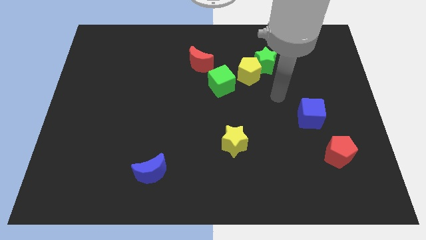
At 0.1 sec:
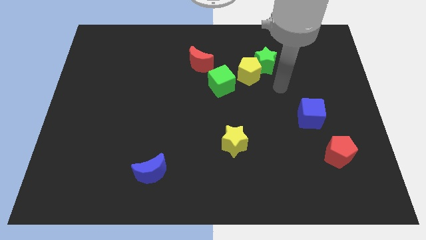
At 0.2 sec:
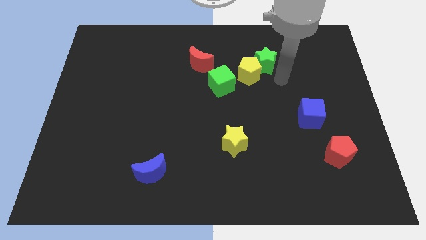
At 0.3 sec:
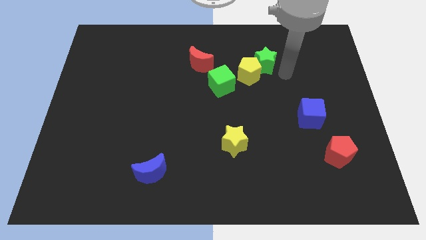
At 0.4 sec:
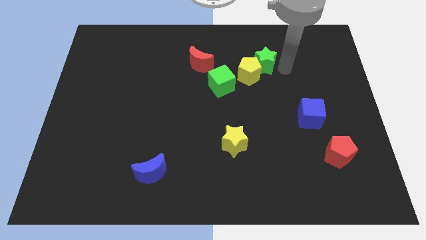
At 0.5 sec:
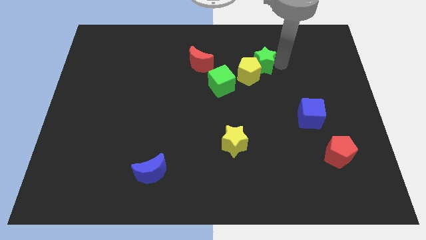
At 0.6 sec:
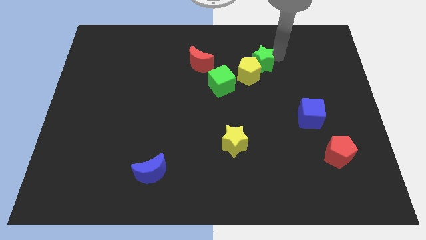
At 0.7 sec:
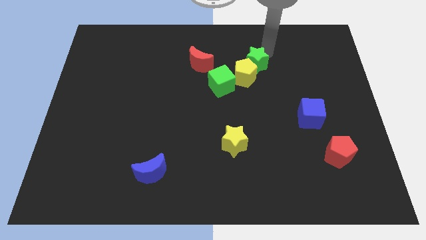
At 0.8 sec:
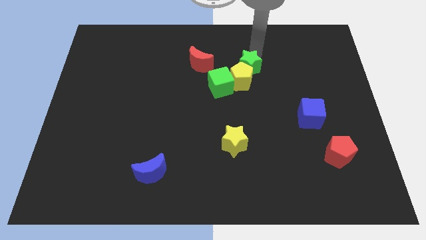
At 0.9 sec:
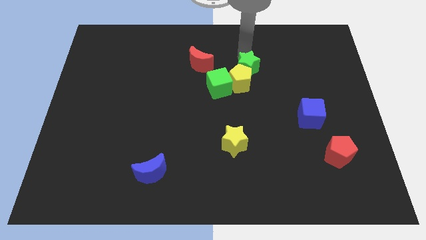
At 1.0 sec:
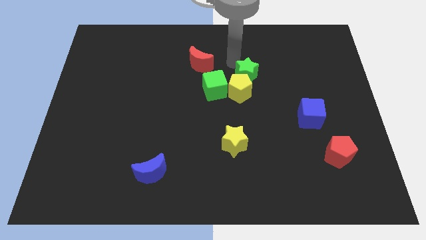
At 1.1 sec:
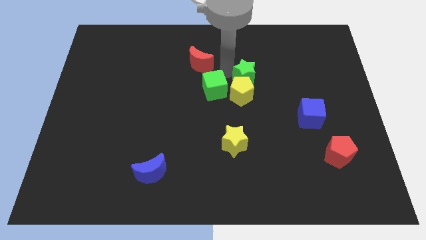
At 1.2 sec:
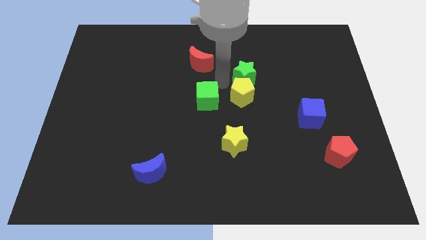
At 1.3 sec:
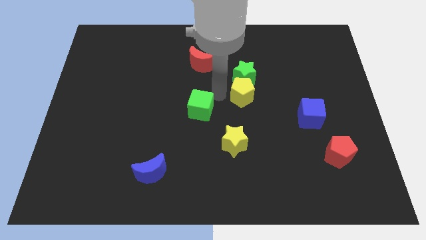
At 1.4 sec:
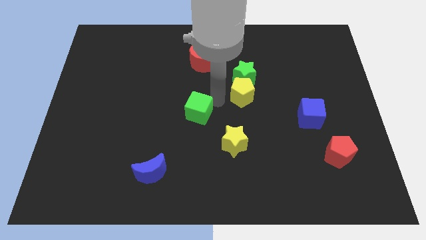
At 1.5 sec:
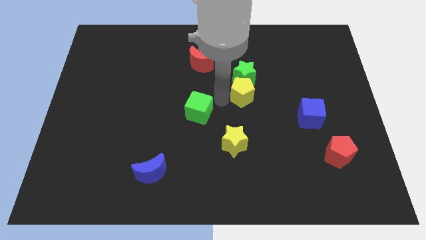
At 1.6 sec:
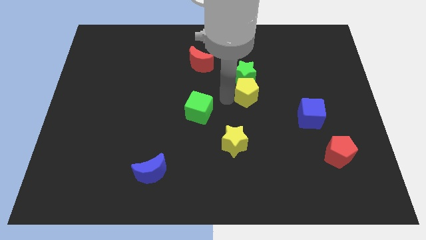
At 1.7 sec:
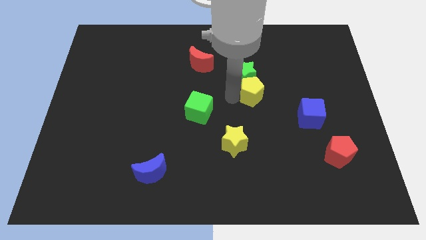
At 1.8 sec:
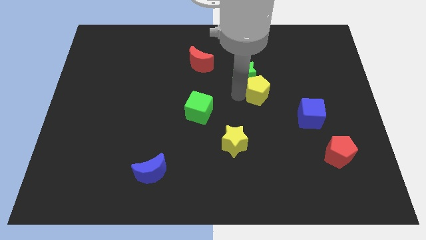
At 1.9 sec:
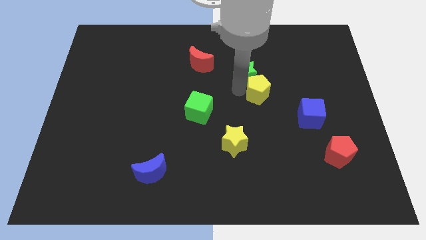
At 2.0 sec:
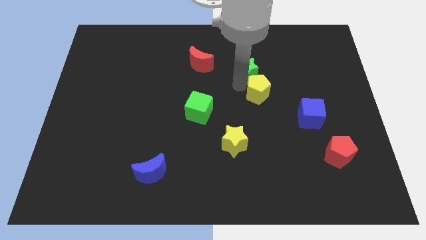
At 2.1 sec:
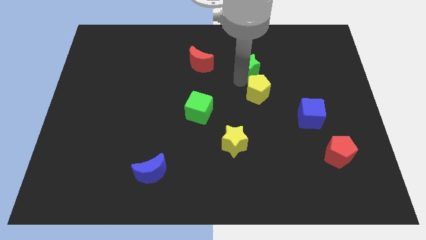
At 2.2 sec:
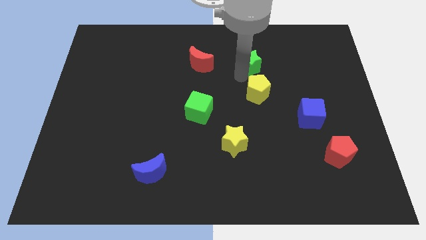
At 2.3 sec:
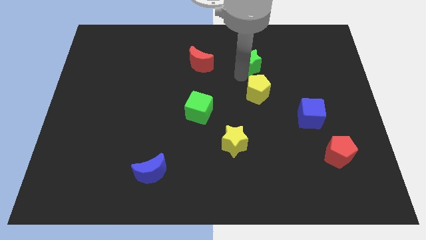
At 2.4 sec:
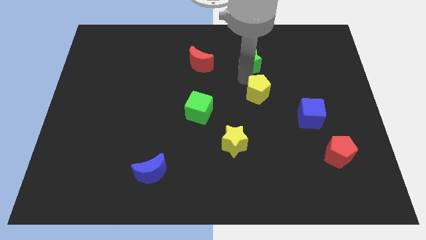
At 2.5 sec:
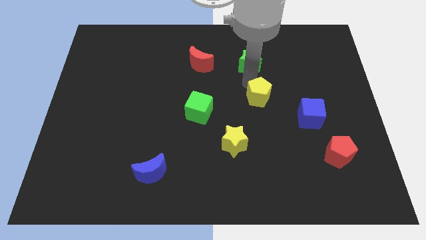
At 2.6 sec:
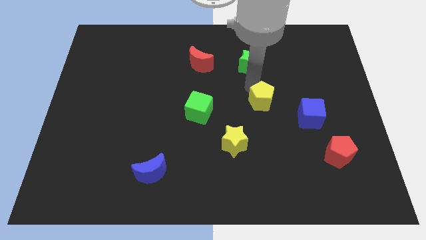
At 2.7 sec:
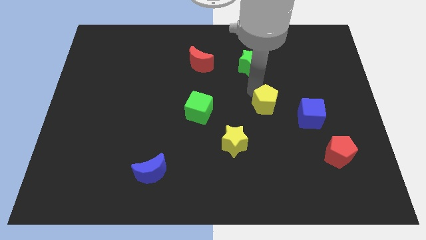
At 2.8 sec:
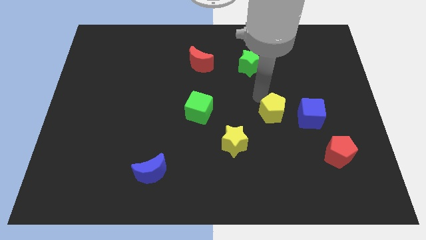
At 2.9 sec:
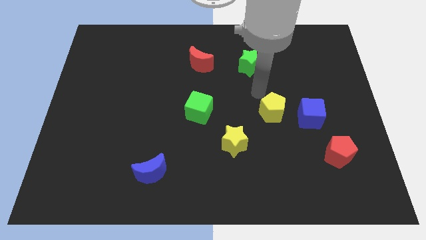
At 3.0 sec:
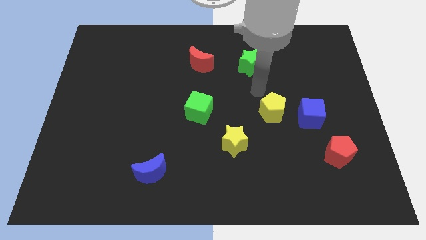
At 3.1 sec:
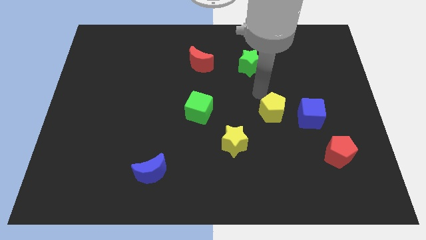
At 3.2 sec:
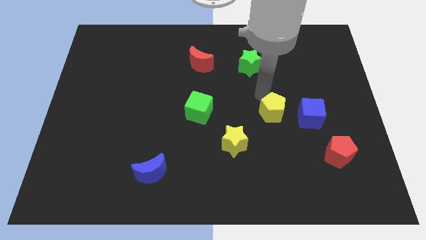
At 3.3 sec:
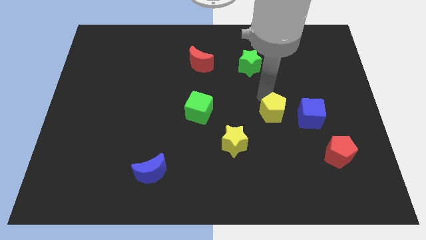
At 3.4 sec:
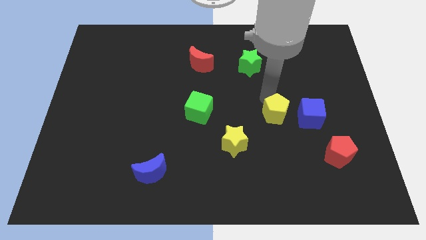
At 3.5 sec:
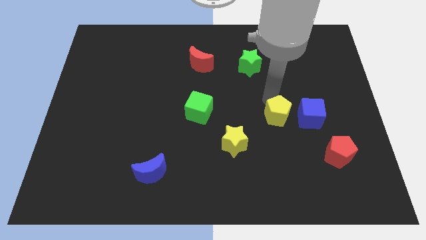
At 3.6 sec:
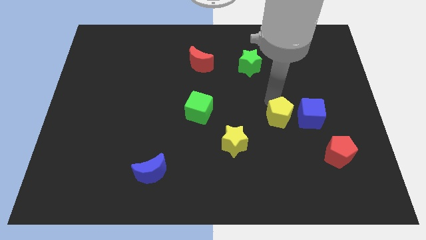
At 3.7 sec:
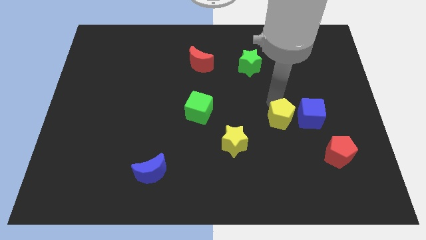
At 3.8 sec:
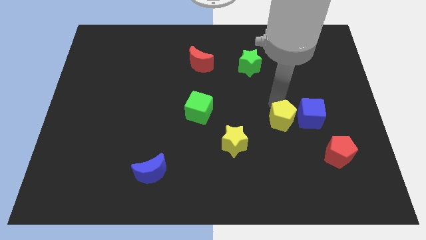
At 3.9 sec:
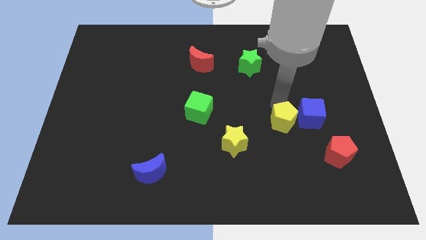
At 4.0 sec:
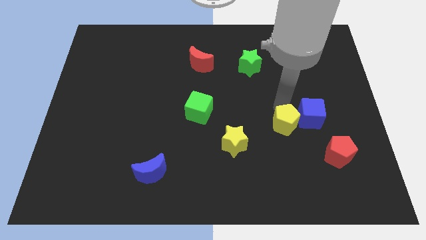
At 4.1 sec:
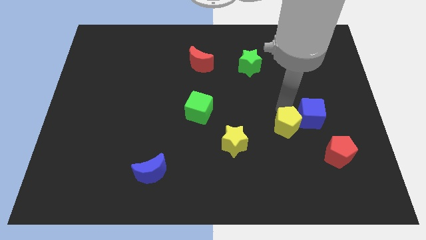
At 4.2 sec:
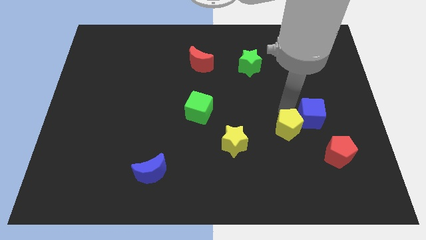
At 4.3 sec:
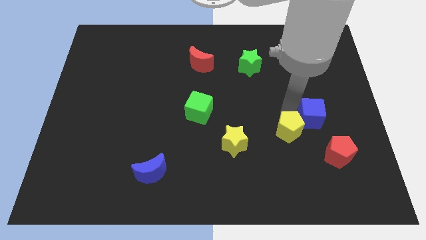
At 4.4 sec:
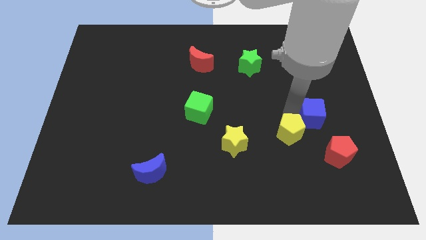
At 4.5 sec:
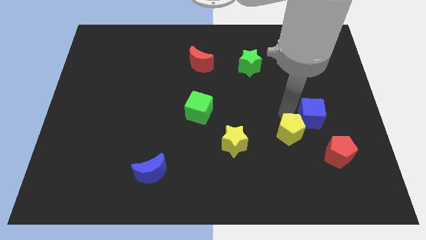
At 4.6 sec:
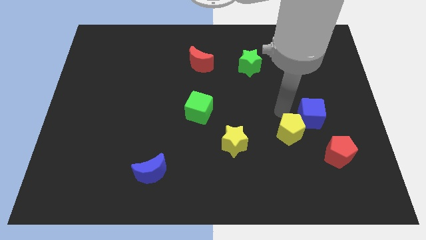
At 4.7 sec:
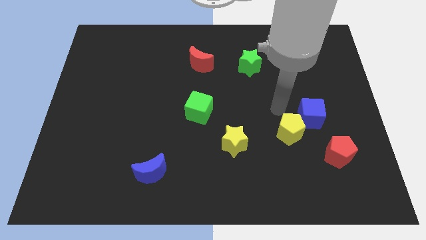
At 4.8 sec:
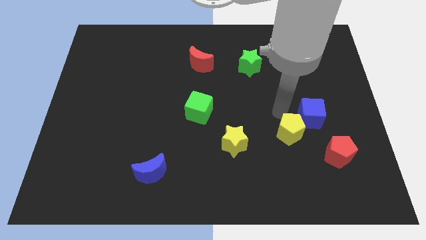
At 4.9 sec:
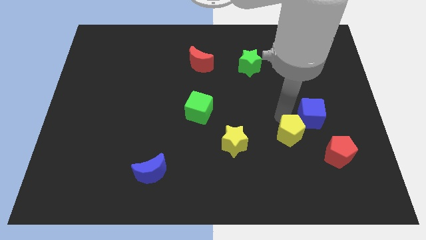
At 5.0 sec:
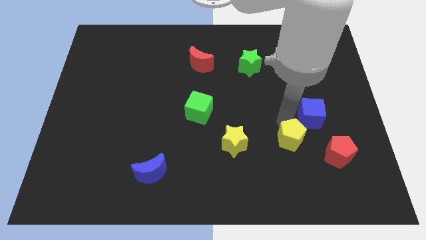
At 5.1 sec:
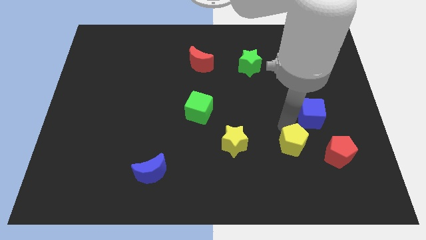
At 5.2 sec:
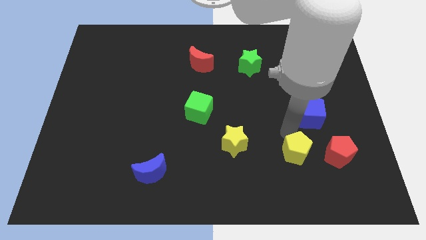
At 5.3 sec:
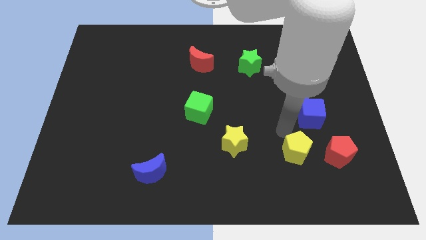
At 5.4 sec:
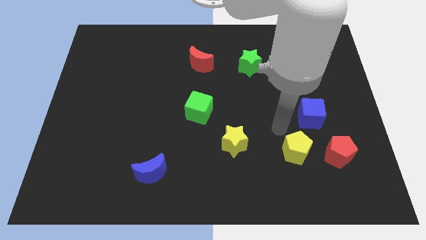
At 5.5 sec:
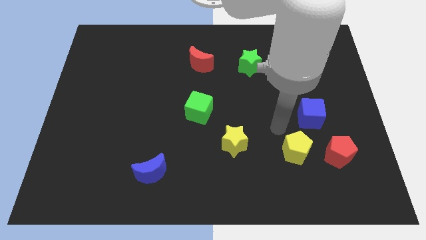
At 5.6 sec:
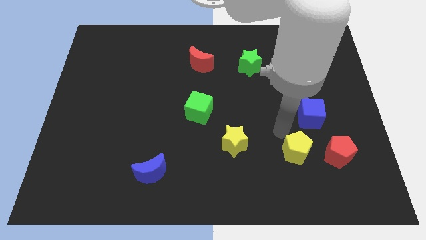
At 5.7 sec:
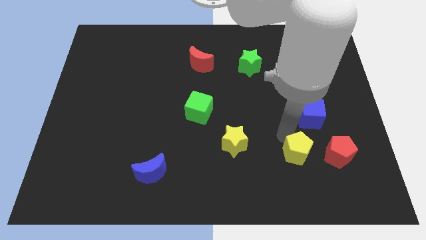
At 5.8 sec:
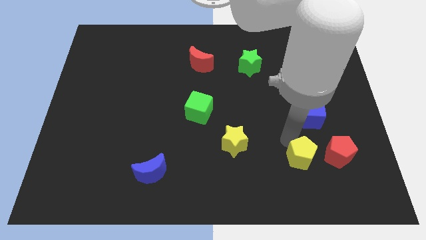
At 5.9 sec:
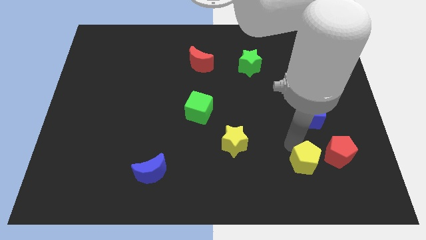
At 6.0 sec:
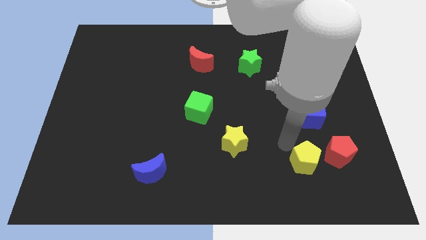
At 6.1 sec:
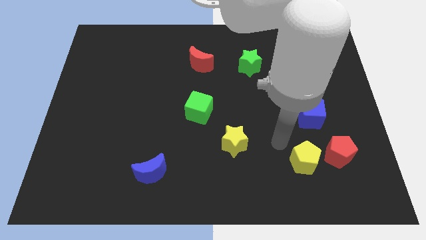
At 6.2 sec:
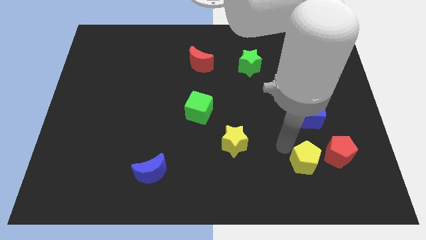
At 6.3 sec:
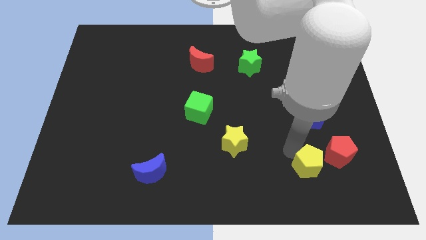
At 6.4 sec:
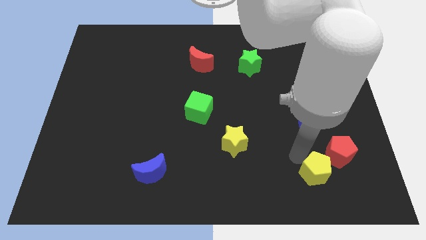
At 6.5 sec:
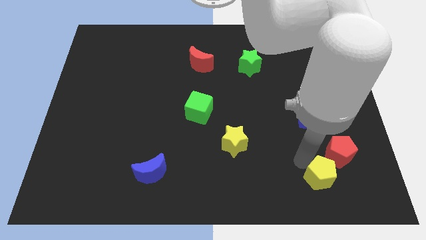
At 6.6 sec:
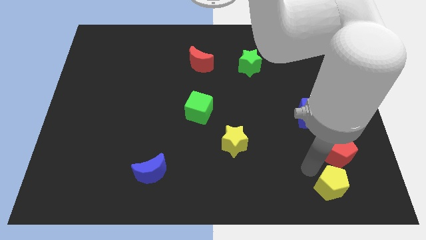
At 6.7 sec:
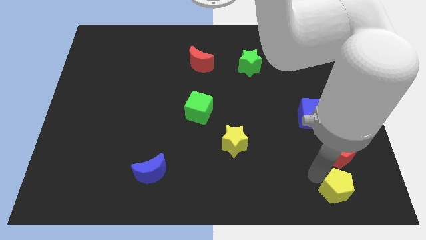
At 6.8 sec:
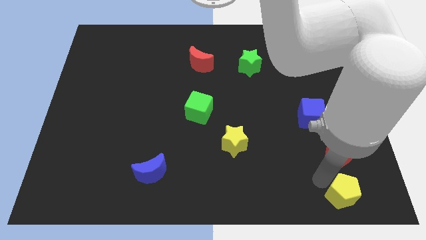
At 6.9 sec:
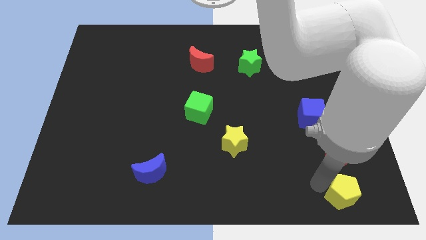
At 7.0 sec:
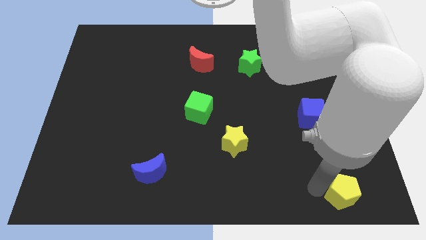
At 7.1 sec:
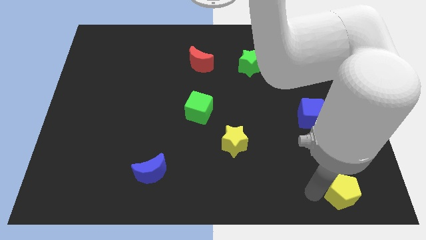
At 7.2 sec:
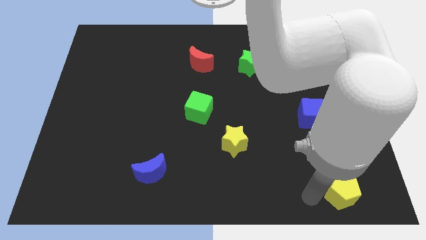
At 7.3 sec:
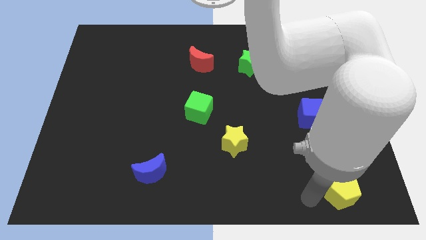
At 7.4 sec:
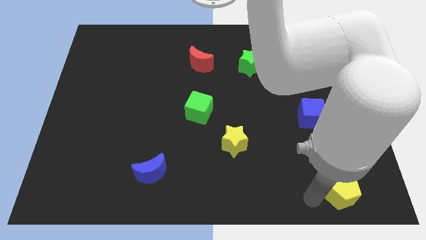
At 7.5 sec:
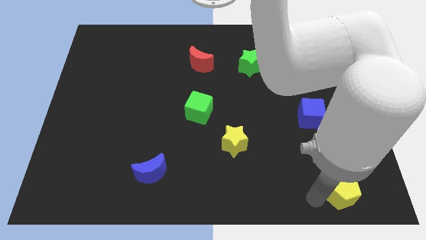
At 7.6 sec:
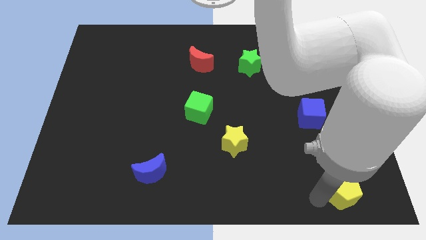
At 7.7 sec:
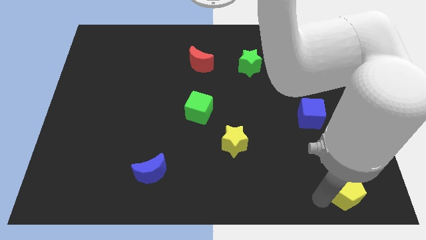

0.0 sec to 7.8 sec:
put the yellow pentagon to the lower right corner
